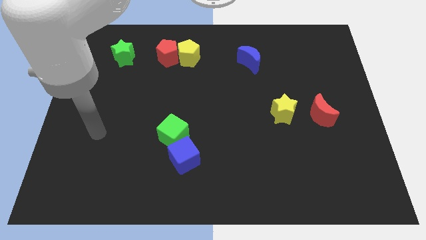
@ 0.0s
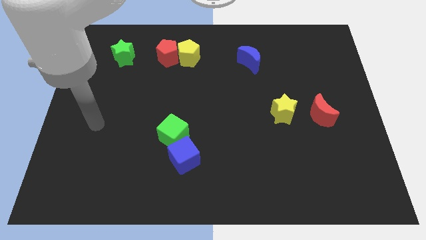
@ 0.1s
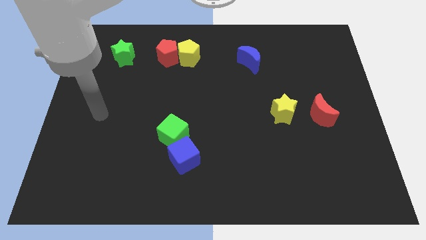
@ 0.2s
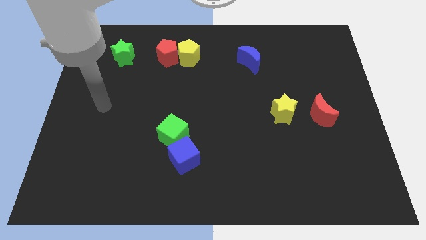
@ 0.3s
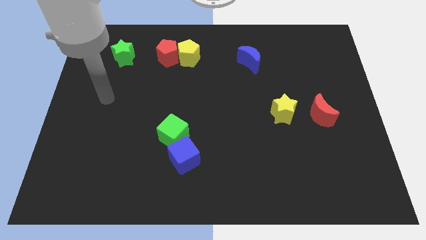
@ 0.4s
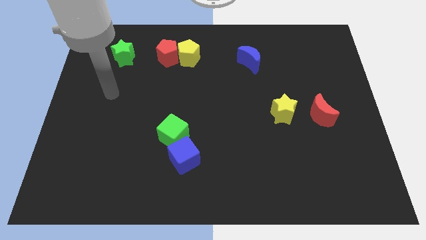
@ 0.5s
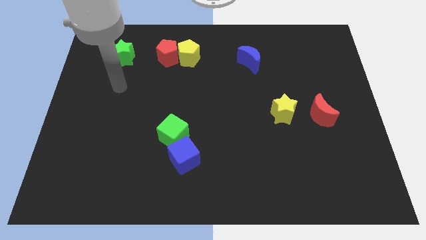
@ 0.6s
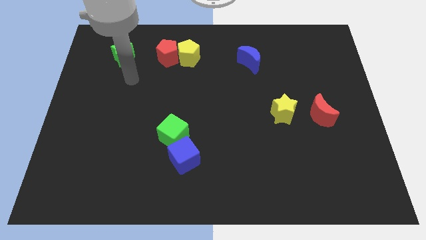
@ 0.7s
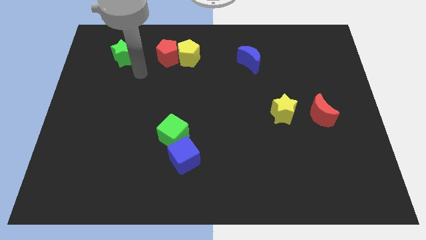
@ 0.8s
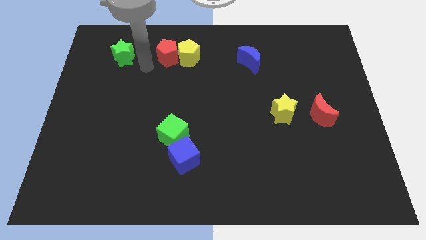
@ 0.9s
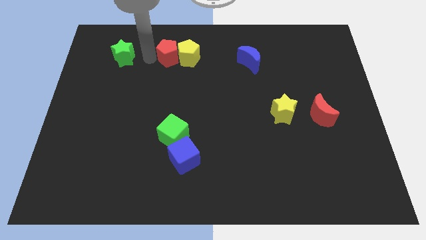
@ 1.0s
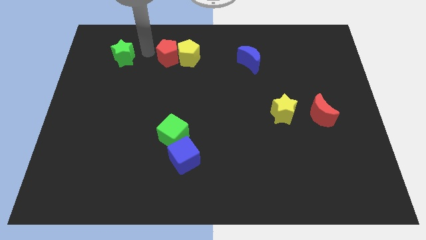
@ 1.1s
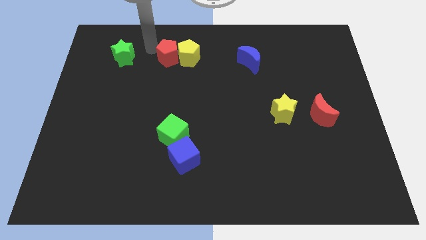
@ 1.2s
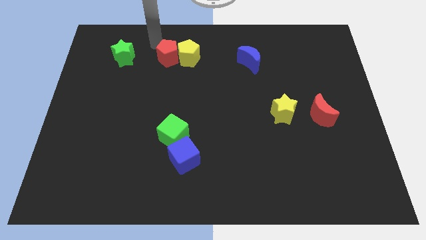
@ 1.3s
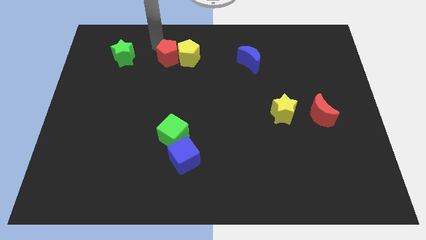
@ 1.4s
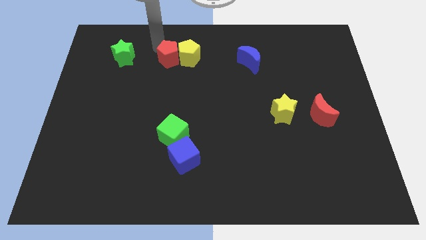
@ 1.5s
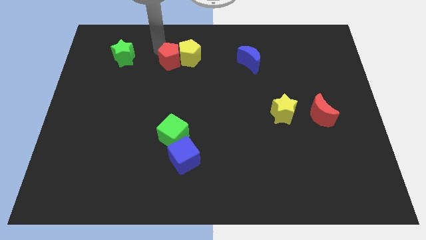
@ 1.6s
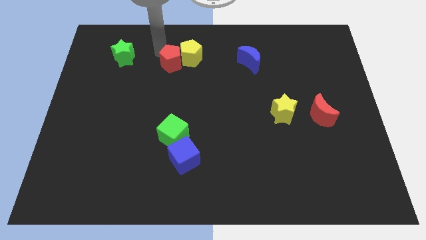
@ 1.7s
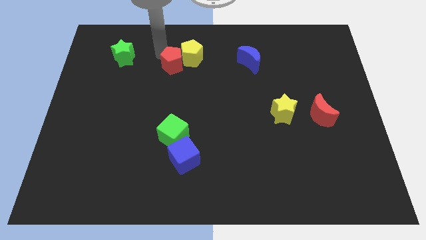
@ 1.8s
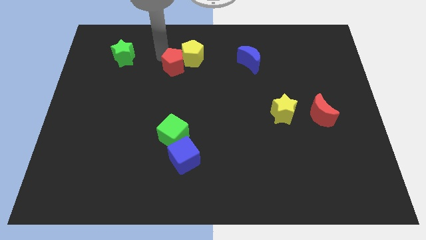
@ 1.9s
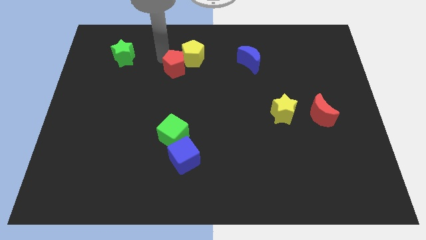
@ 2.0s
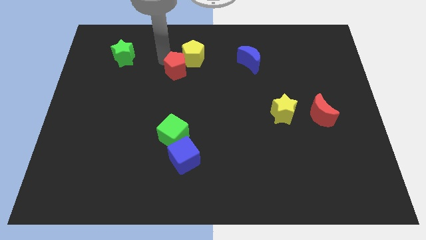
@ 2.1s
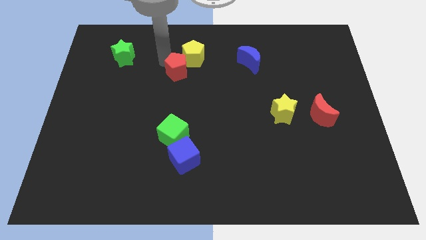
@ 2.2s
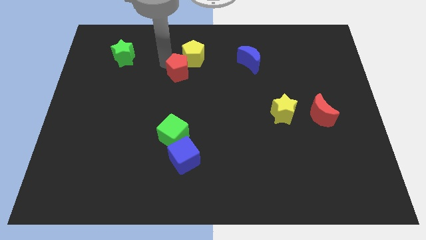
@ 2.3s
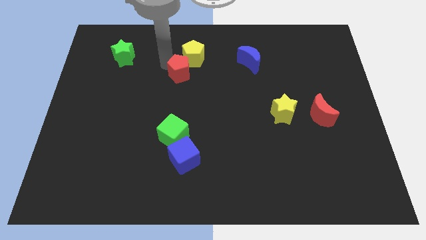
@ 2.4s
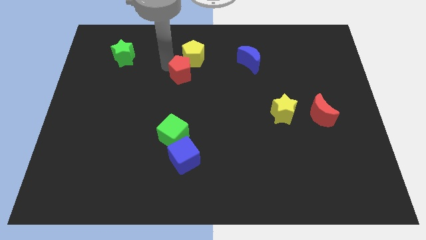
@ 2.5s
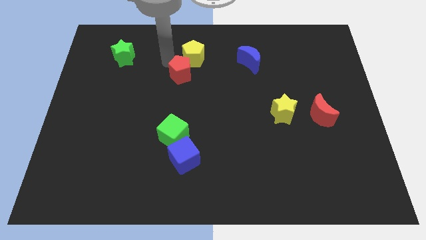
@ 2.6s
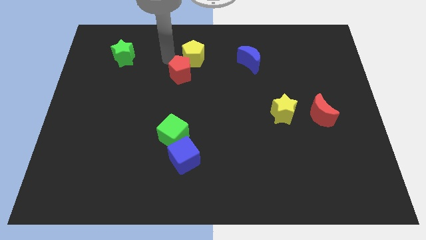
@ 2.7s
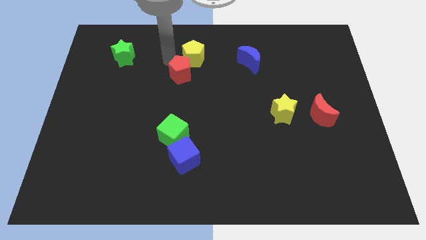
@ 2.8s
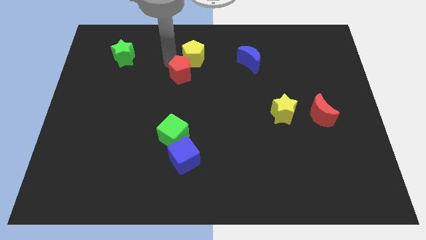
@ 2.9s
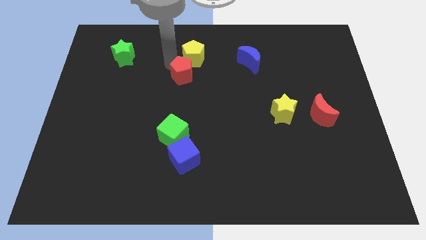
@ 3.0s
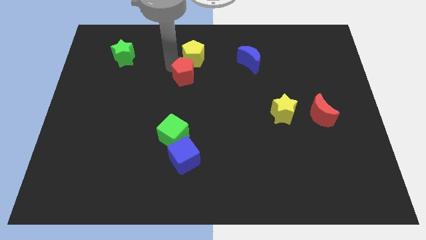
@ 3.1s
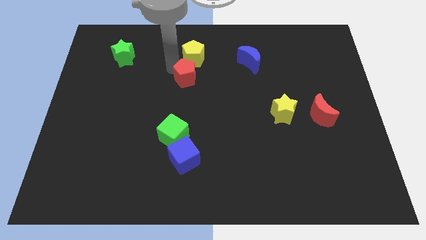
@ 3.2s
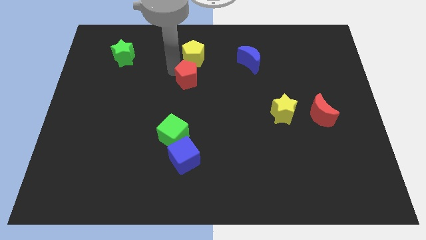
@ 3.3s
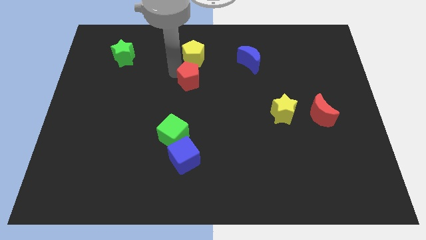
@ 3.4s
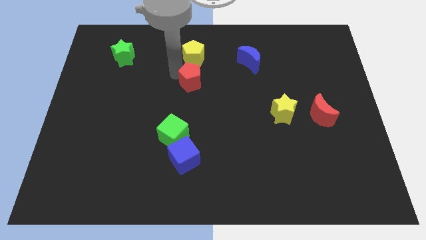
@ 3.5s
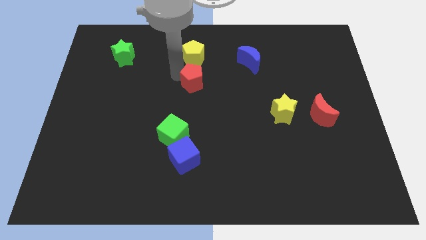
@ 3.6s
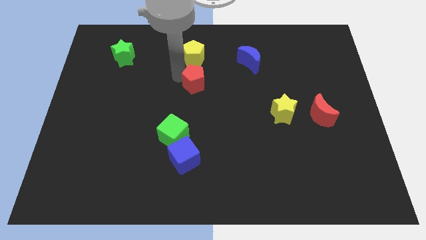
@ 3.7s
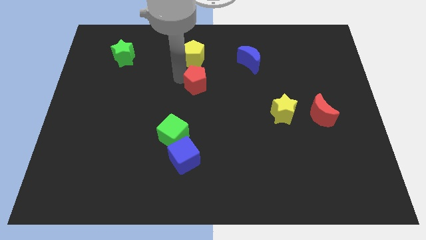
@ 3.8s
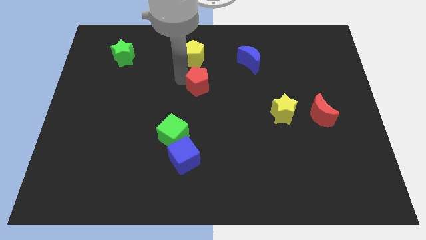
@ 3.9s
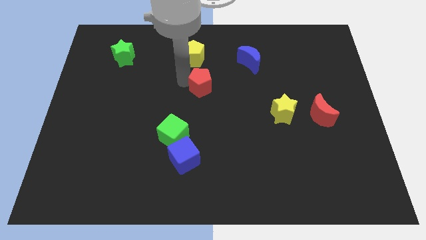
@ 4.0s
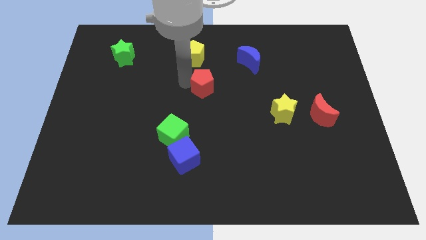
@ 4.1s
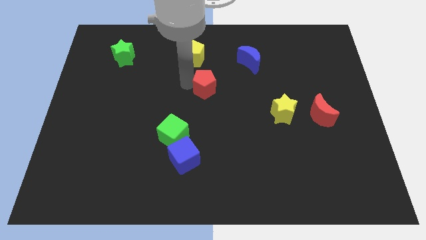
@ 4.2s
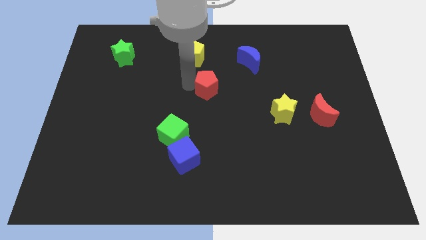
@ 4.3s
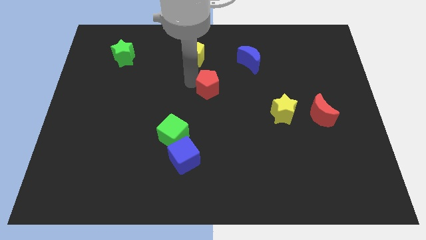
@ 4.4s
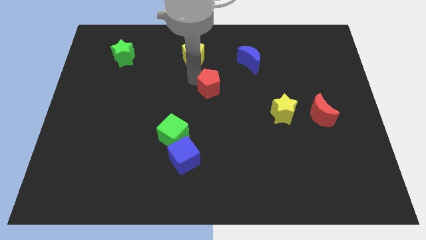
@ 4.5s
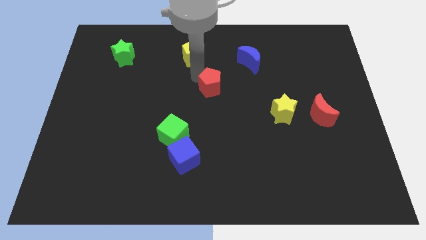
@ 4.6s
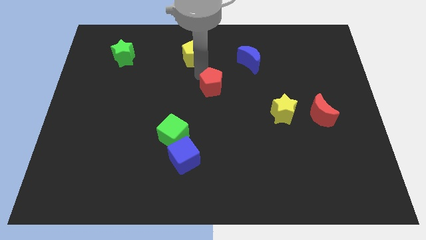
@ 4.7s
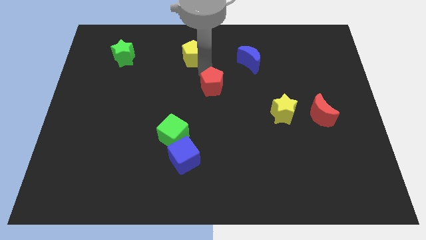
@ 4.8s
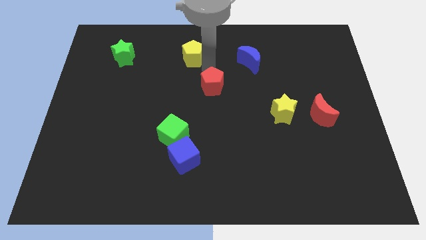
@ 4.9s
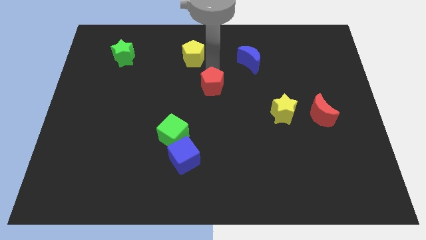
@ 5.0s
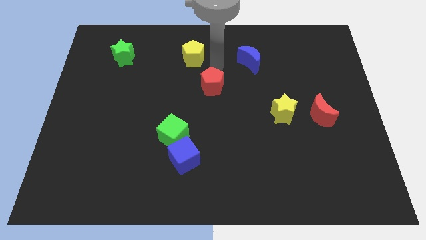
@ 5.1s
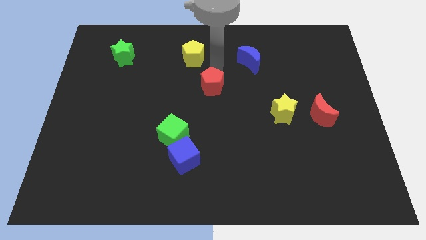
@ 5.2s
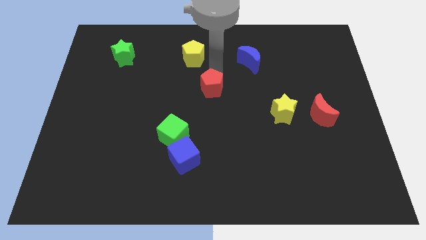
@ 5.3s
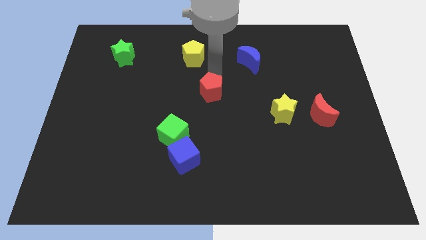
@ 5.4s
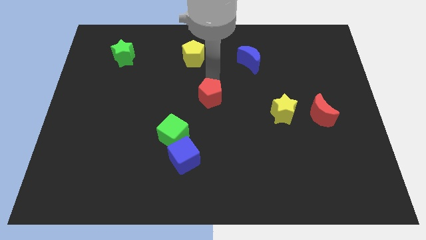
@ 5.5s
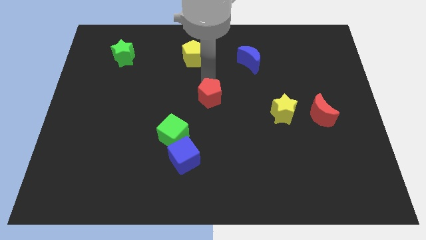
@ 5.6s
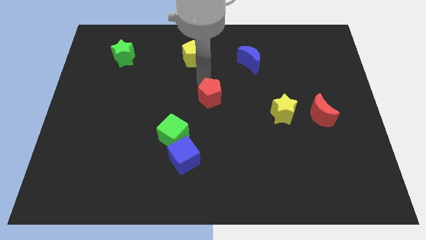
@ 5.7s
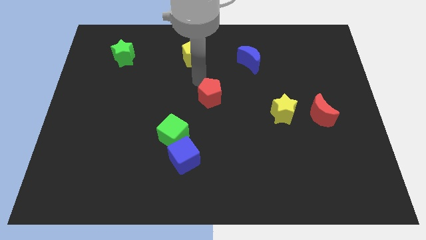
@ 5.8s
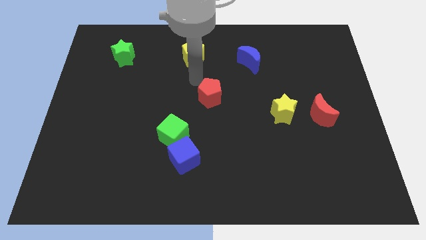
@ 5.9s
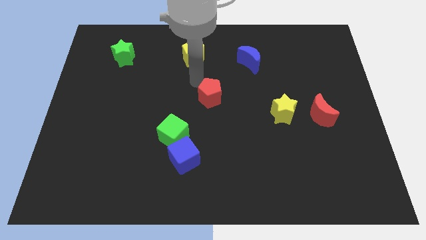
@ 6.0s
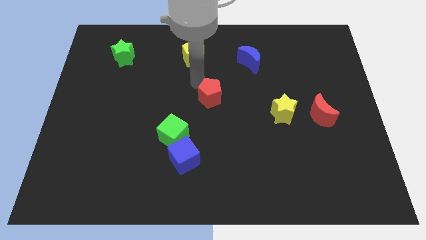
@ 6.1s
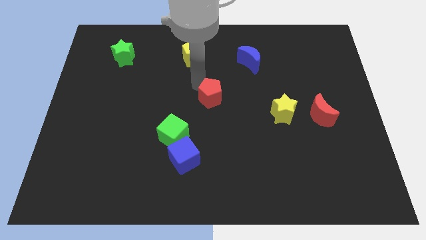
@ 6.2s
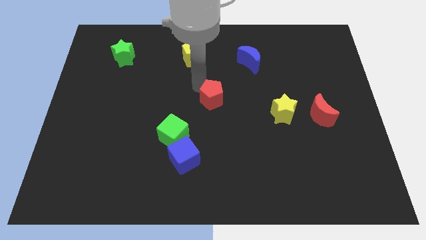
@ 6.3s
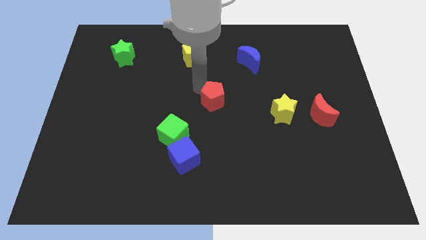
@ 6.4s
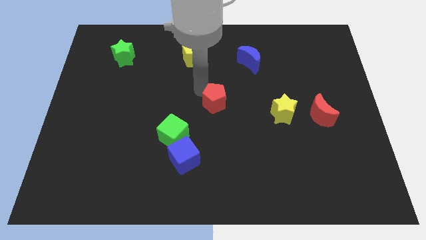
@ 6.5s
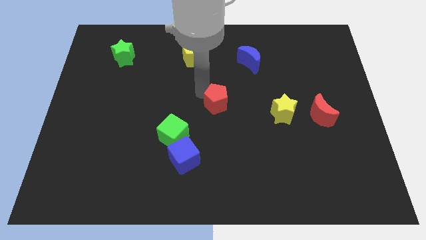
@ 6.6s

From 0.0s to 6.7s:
move the red pentagon downwards and right

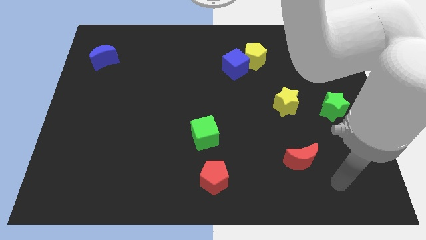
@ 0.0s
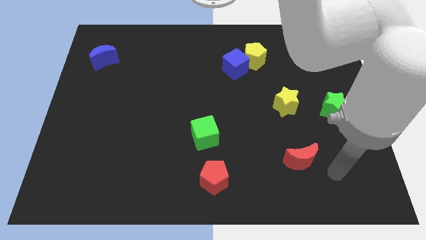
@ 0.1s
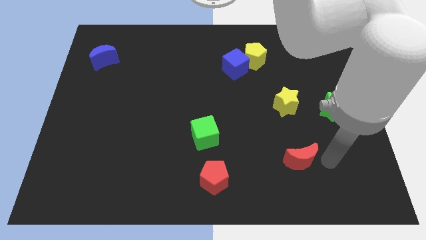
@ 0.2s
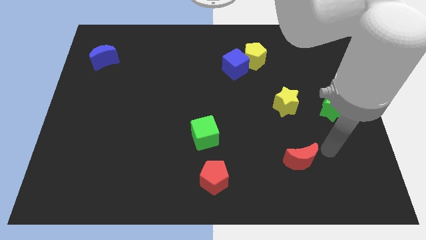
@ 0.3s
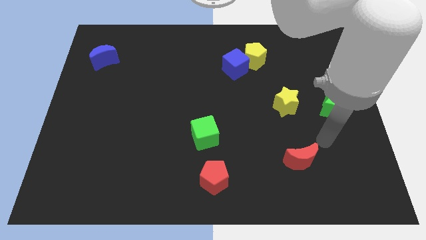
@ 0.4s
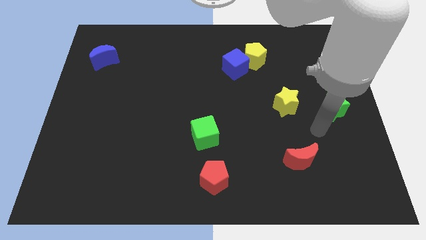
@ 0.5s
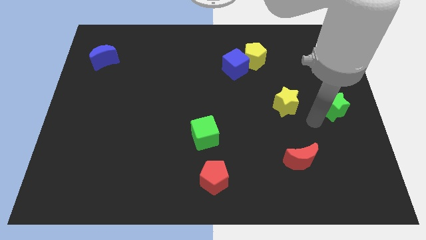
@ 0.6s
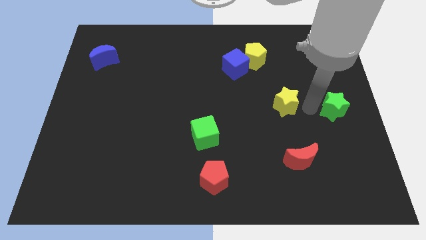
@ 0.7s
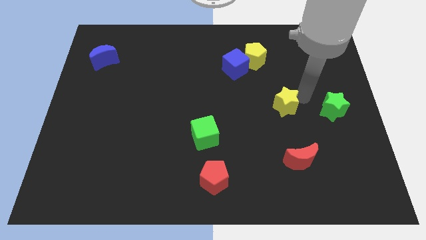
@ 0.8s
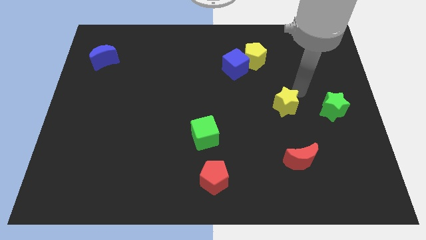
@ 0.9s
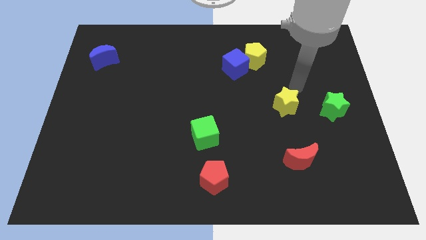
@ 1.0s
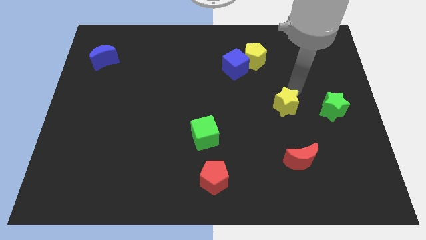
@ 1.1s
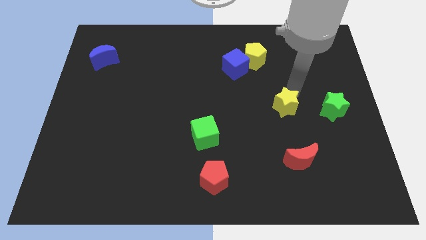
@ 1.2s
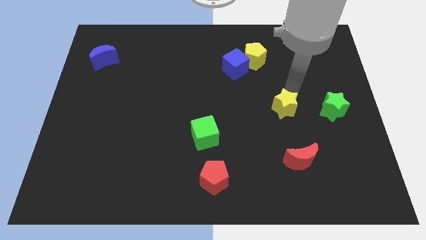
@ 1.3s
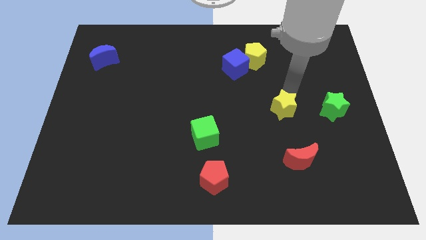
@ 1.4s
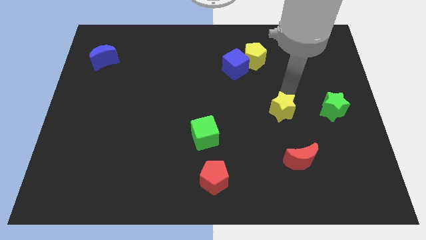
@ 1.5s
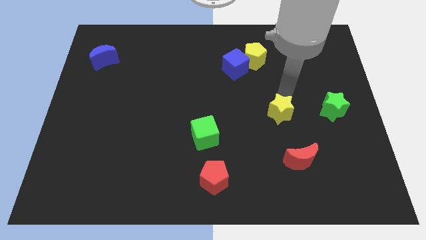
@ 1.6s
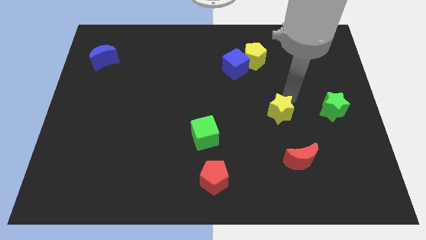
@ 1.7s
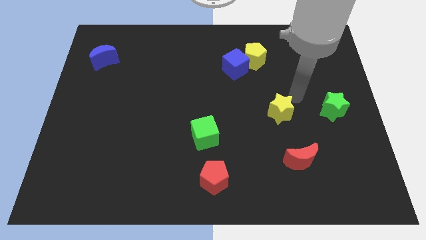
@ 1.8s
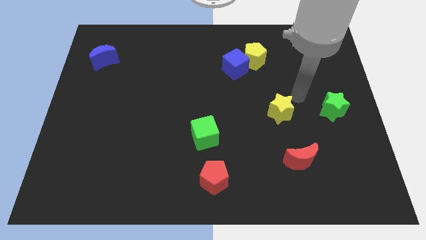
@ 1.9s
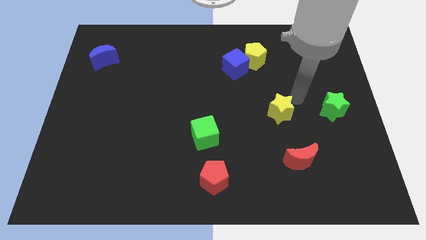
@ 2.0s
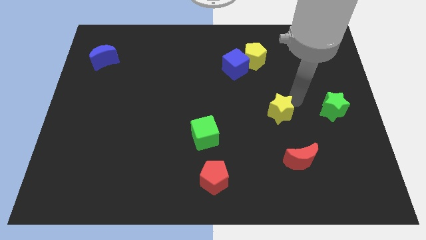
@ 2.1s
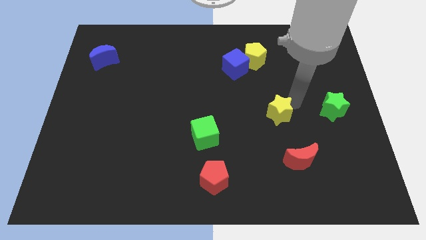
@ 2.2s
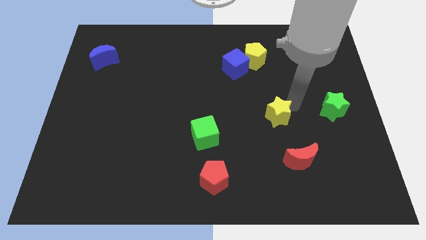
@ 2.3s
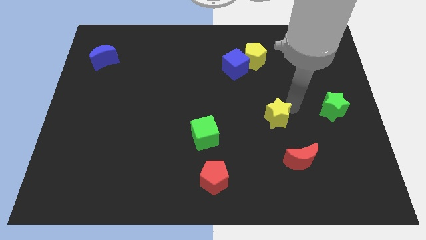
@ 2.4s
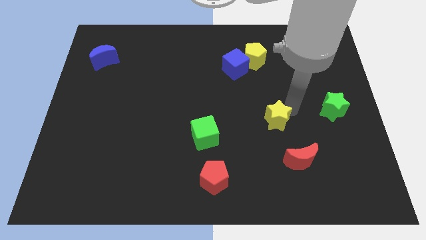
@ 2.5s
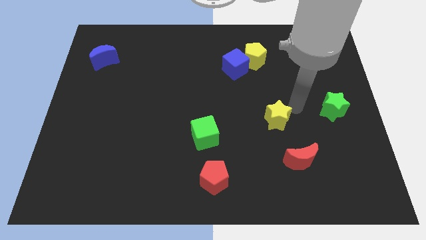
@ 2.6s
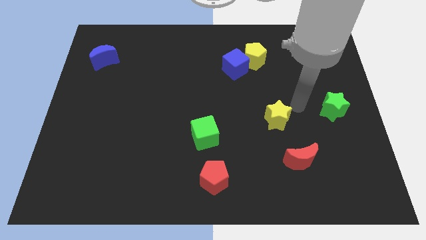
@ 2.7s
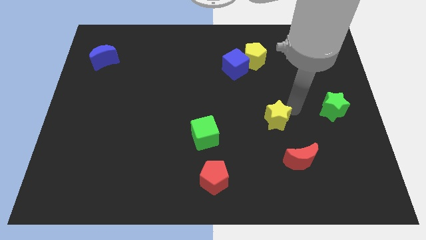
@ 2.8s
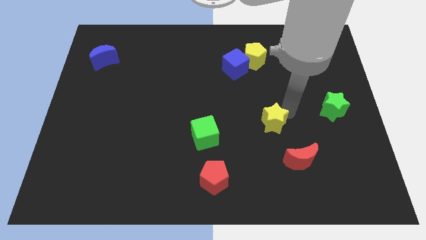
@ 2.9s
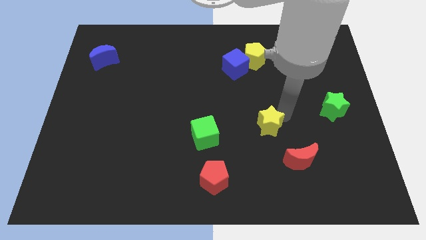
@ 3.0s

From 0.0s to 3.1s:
move the yellow star downwards and to the left a little bit
